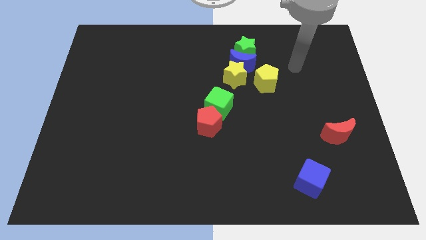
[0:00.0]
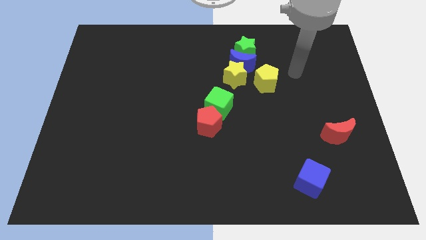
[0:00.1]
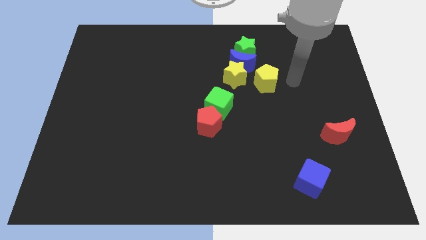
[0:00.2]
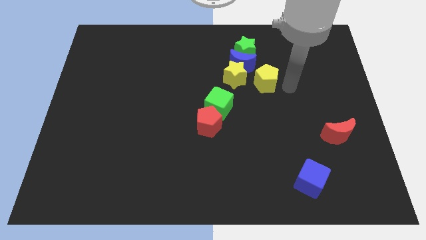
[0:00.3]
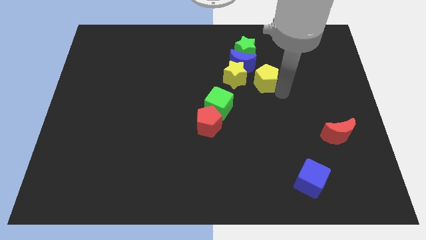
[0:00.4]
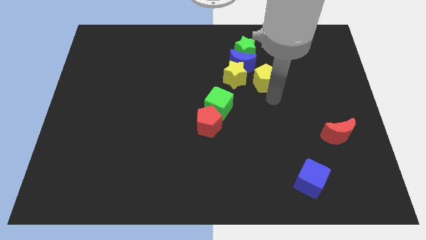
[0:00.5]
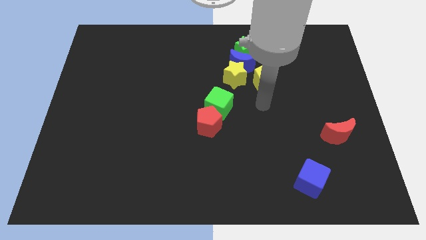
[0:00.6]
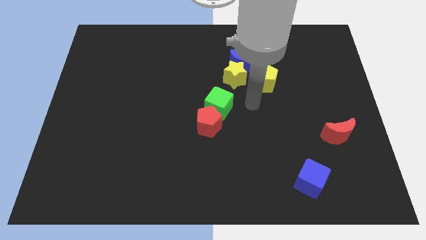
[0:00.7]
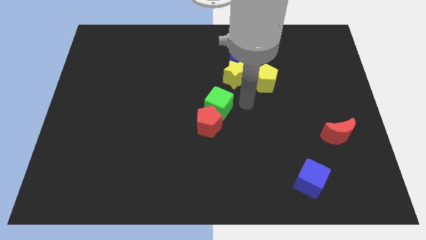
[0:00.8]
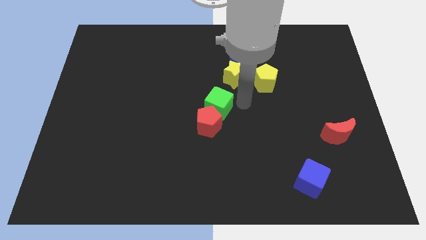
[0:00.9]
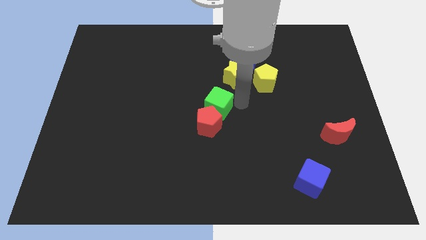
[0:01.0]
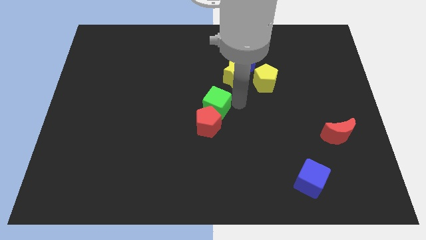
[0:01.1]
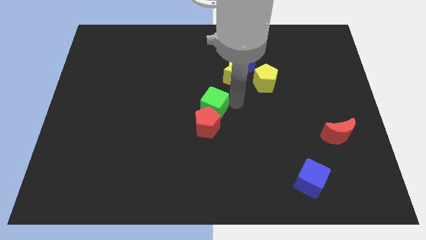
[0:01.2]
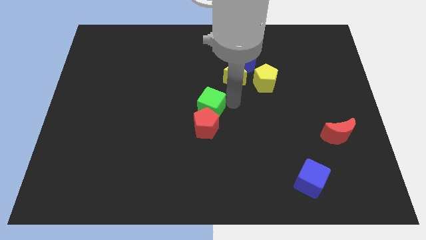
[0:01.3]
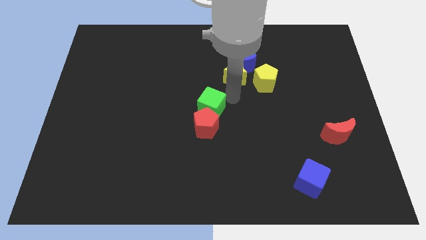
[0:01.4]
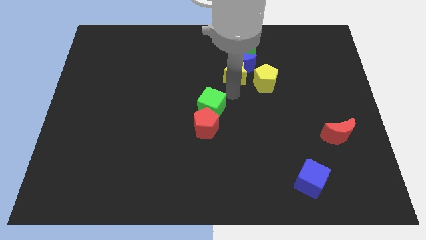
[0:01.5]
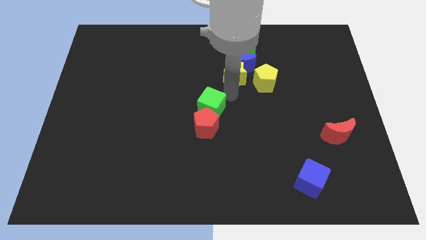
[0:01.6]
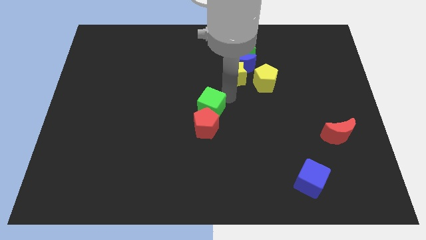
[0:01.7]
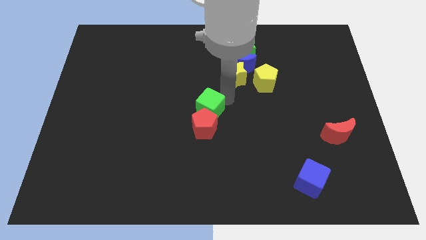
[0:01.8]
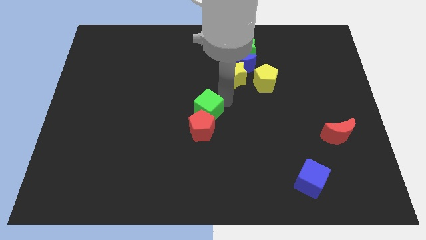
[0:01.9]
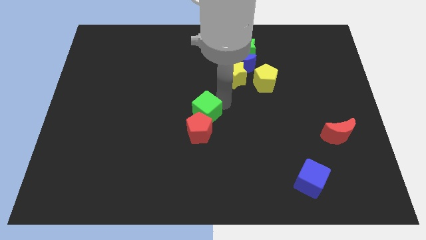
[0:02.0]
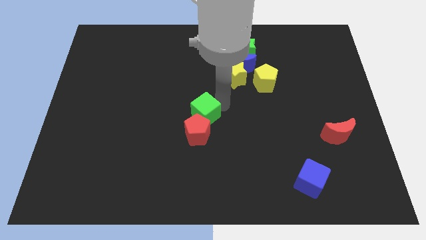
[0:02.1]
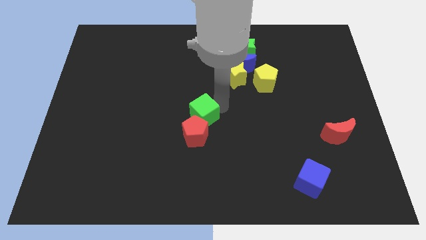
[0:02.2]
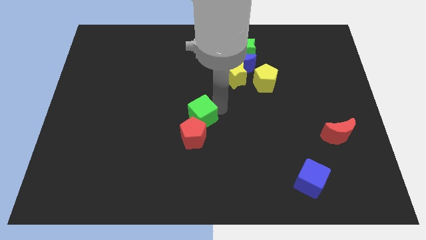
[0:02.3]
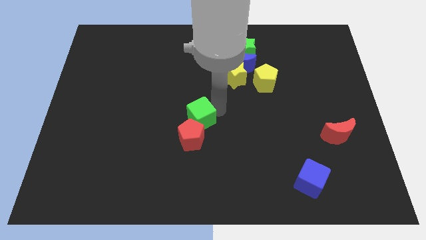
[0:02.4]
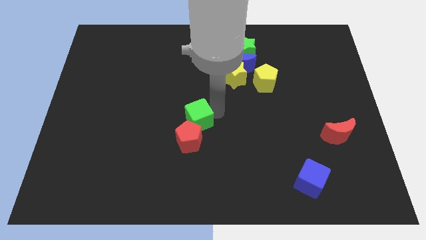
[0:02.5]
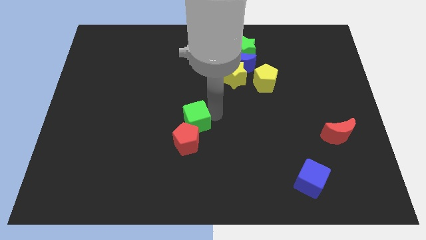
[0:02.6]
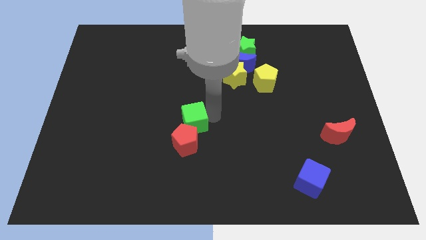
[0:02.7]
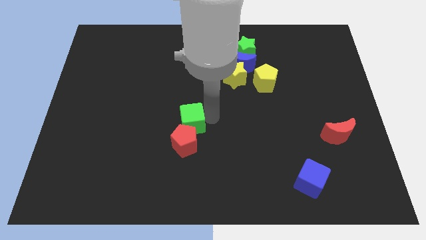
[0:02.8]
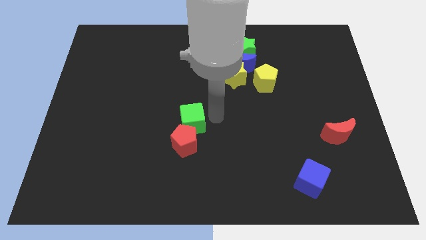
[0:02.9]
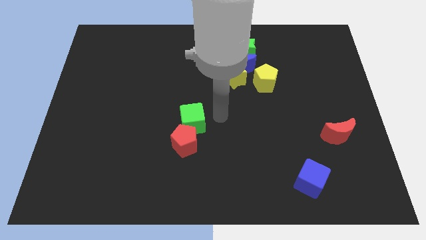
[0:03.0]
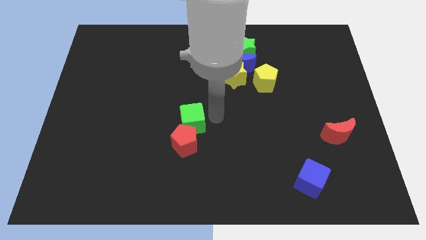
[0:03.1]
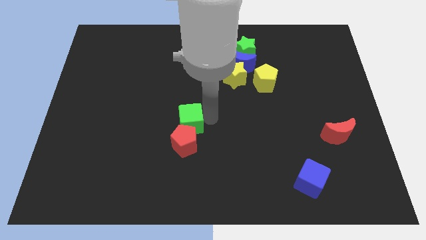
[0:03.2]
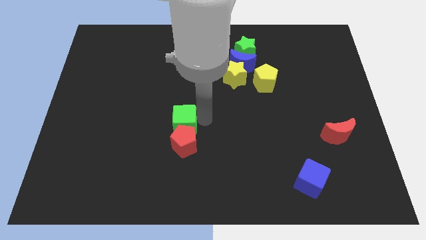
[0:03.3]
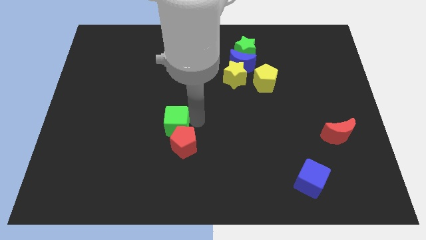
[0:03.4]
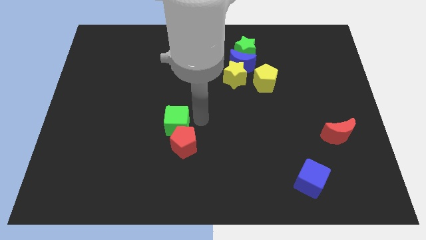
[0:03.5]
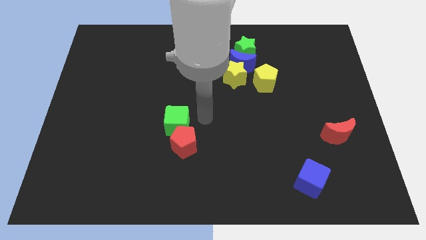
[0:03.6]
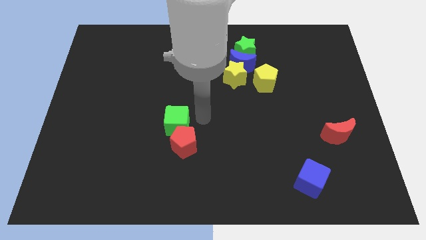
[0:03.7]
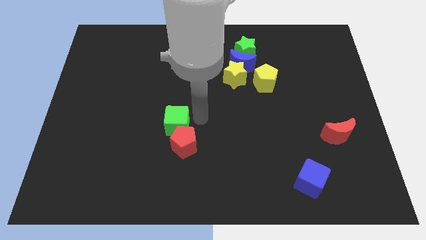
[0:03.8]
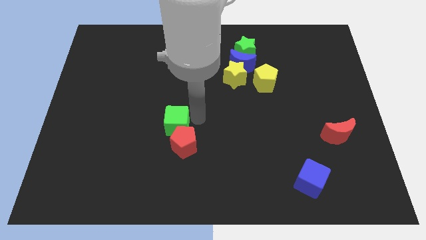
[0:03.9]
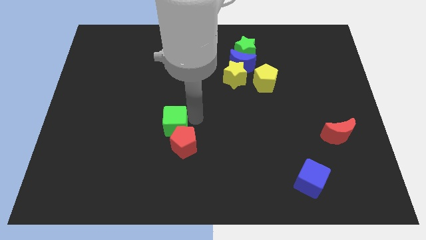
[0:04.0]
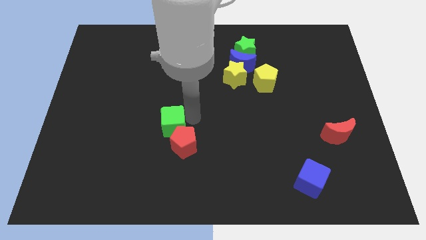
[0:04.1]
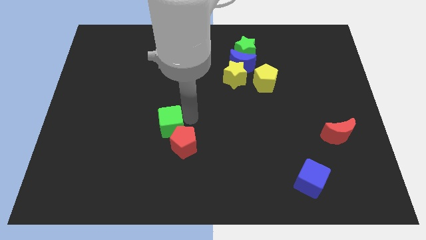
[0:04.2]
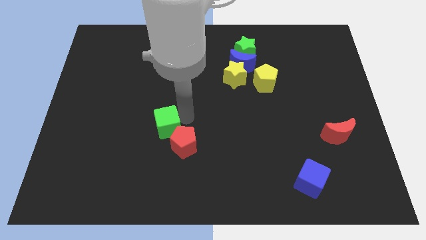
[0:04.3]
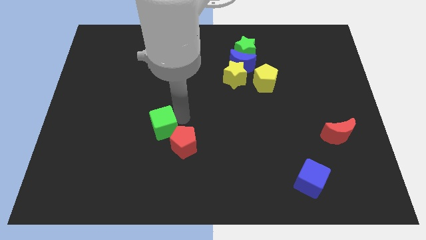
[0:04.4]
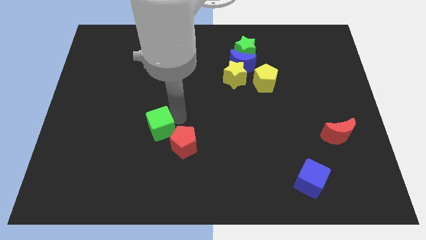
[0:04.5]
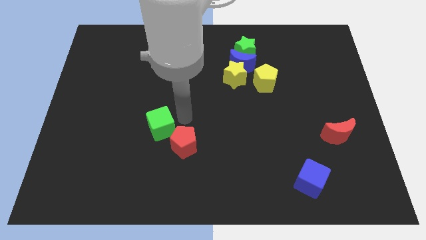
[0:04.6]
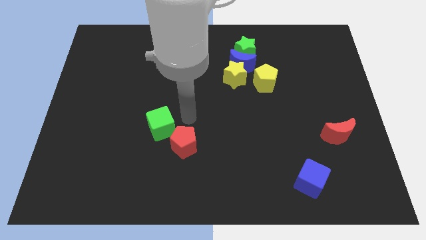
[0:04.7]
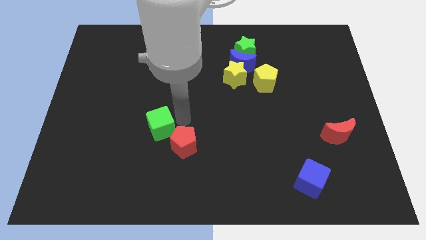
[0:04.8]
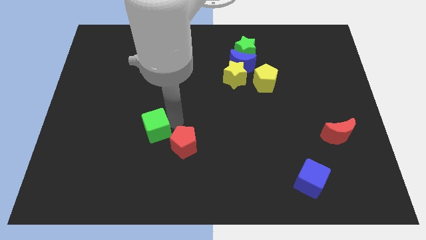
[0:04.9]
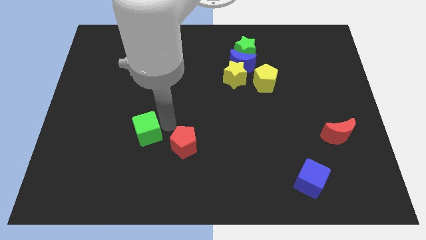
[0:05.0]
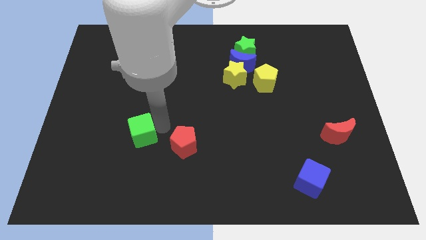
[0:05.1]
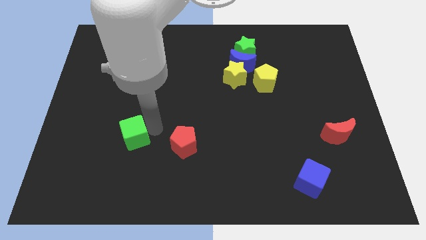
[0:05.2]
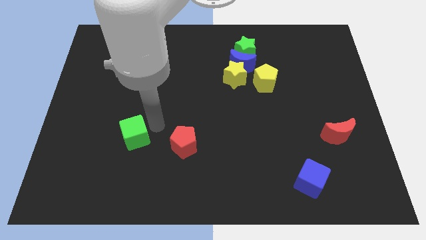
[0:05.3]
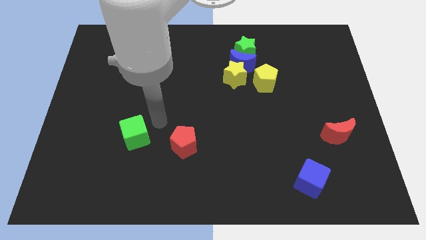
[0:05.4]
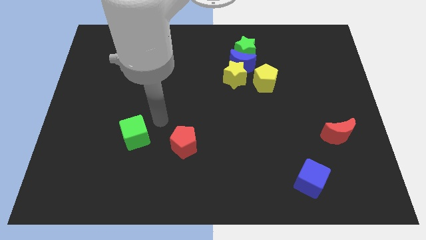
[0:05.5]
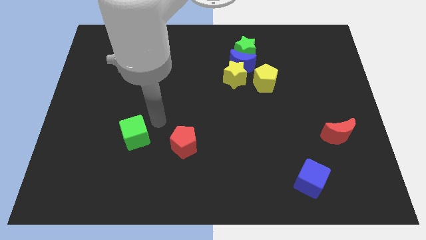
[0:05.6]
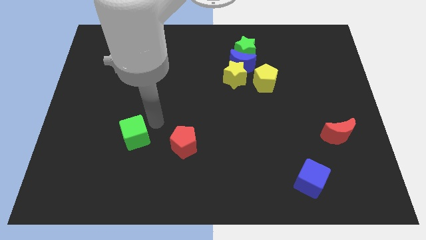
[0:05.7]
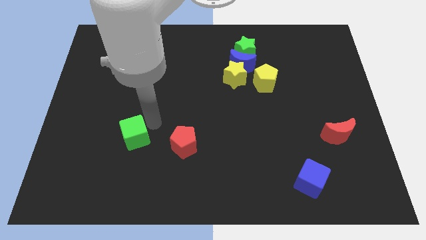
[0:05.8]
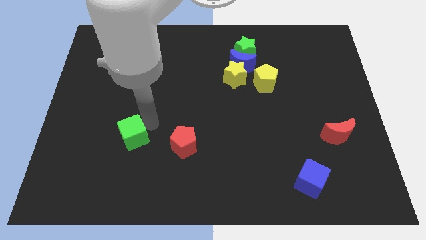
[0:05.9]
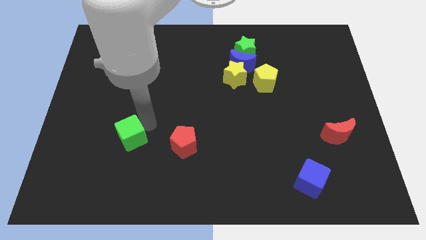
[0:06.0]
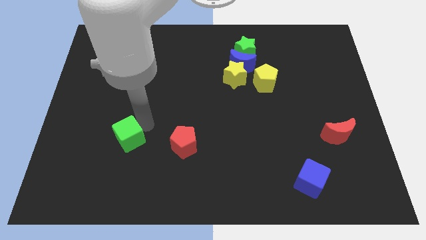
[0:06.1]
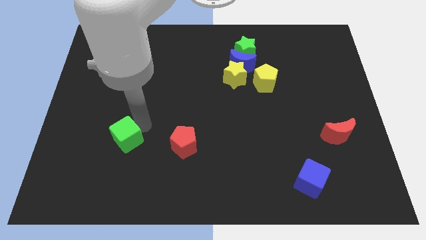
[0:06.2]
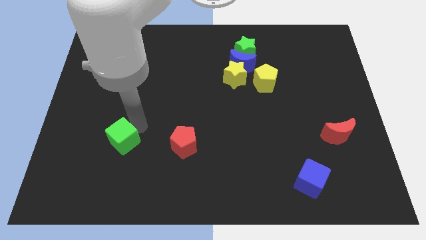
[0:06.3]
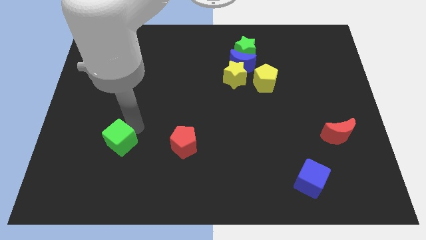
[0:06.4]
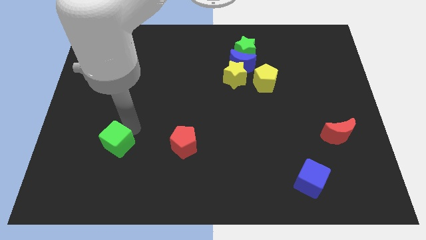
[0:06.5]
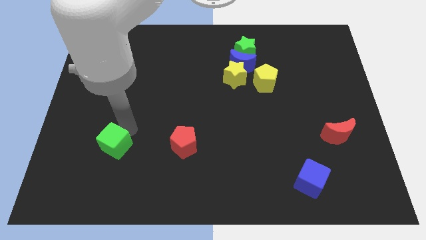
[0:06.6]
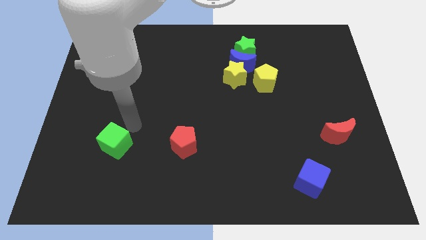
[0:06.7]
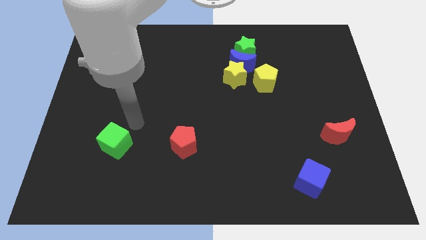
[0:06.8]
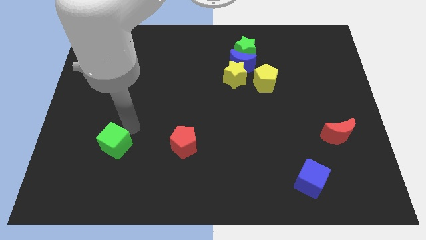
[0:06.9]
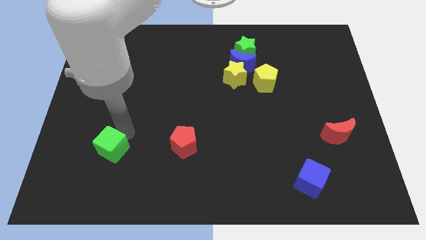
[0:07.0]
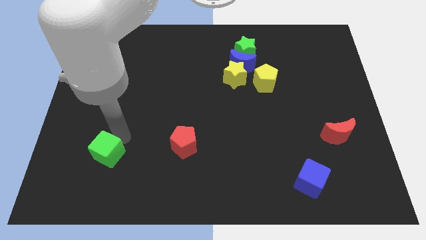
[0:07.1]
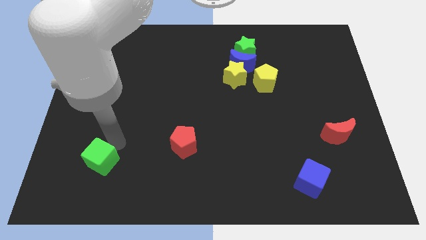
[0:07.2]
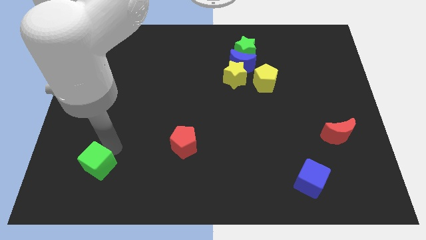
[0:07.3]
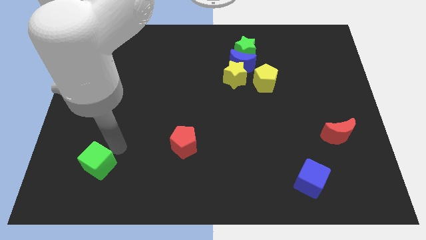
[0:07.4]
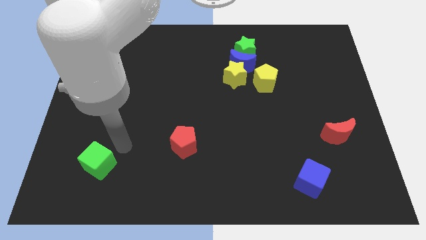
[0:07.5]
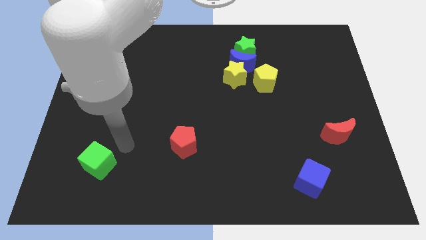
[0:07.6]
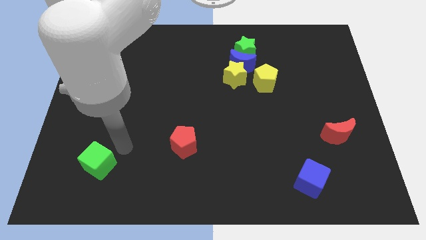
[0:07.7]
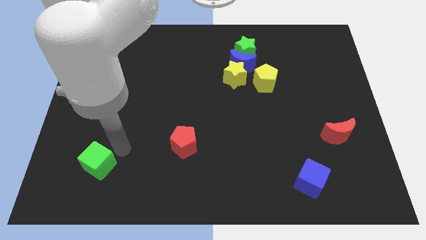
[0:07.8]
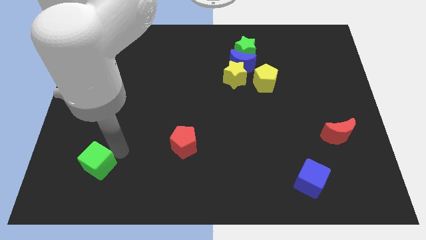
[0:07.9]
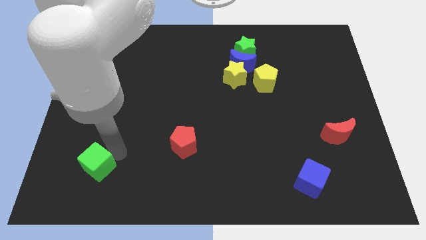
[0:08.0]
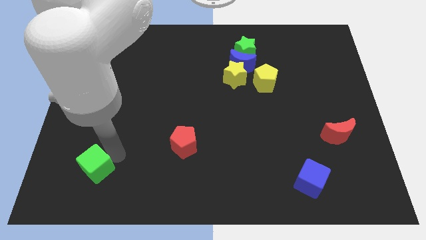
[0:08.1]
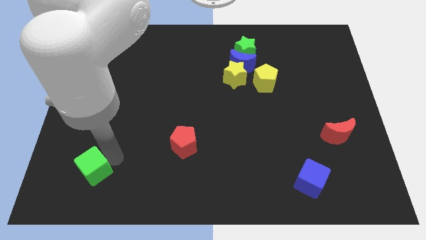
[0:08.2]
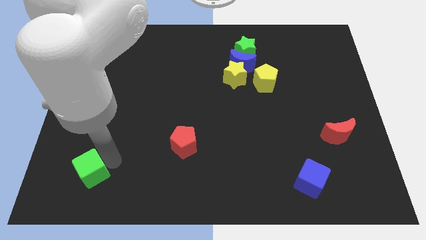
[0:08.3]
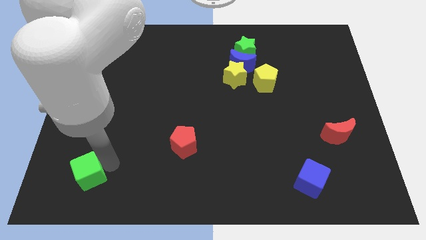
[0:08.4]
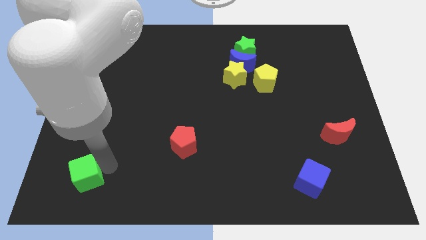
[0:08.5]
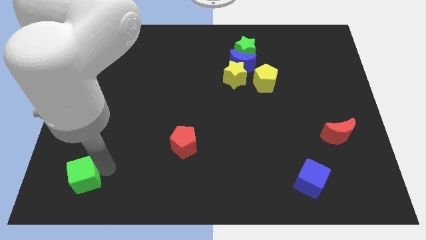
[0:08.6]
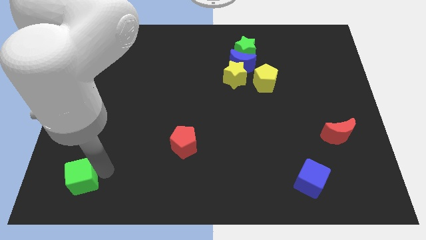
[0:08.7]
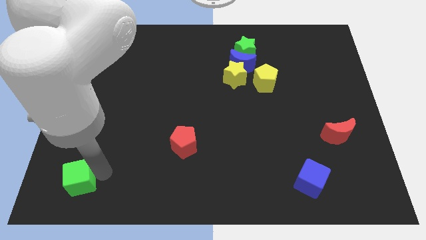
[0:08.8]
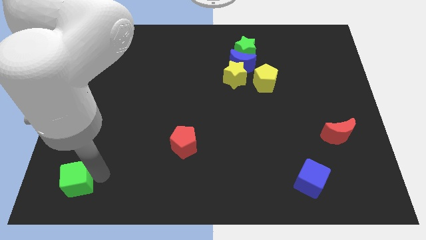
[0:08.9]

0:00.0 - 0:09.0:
put the green cube to the bottom left of the board
